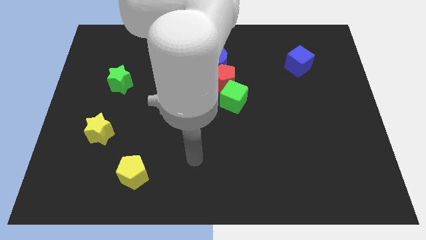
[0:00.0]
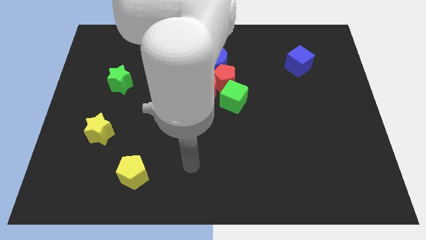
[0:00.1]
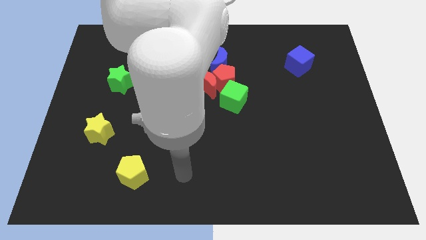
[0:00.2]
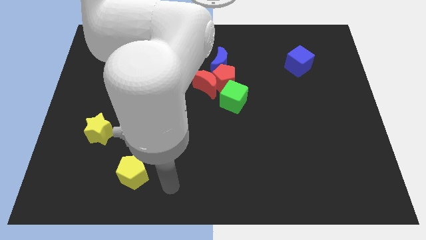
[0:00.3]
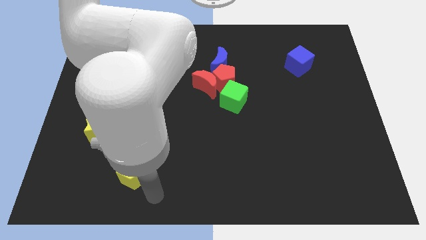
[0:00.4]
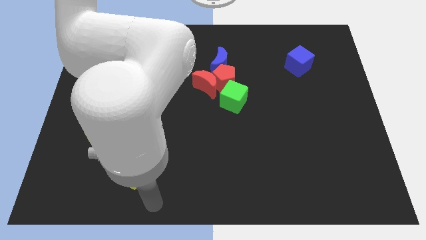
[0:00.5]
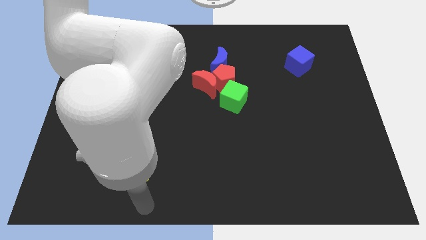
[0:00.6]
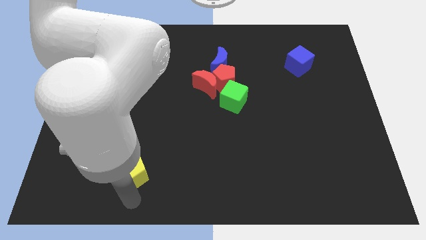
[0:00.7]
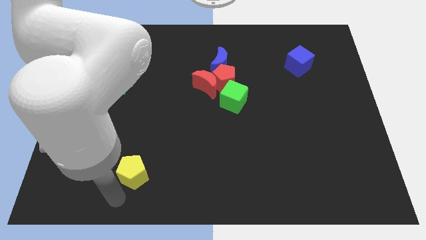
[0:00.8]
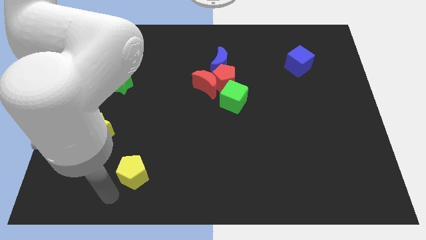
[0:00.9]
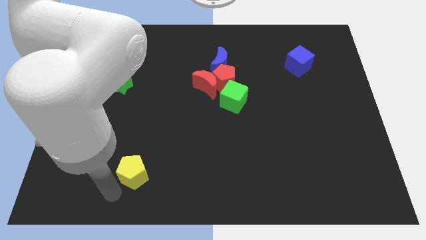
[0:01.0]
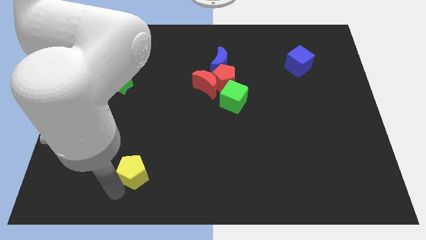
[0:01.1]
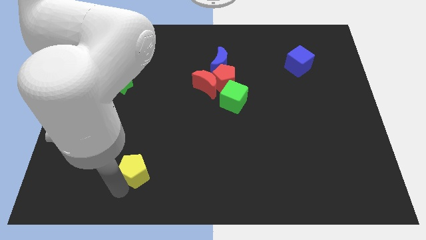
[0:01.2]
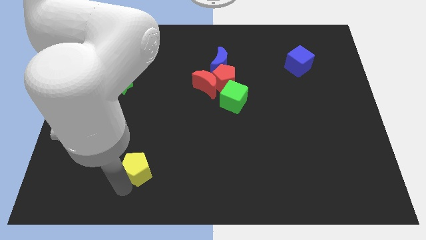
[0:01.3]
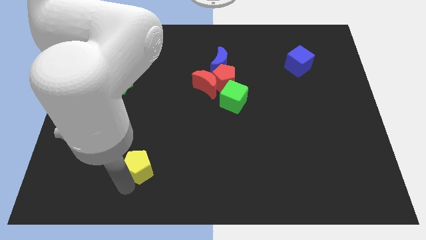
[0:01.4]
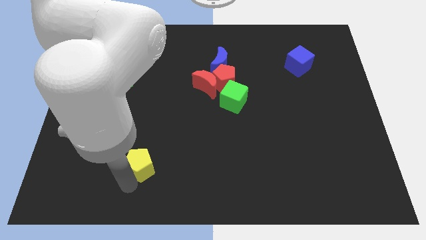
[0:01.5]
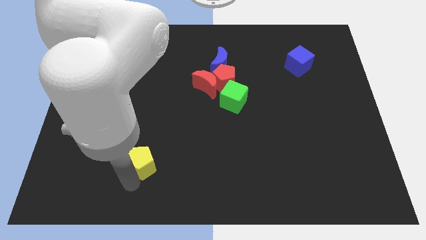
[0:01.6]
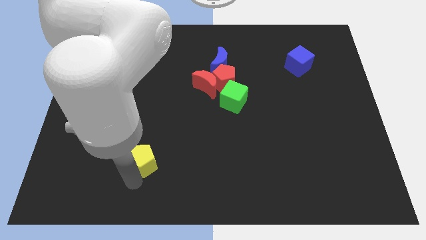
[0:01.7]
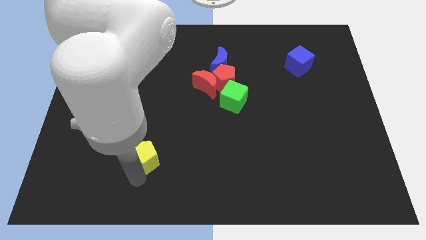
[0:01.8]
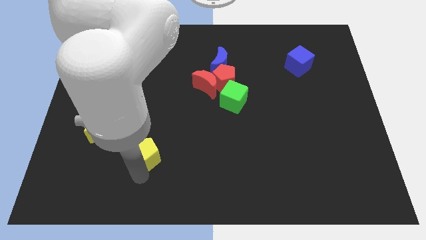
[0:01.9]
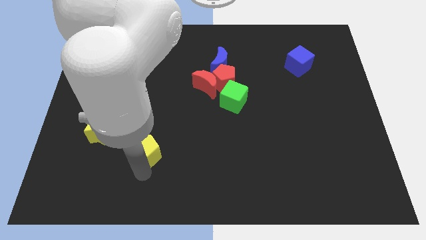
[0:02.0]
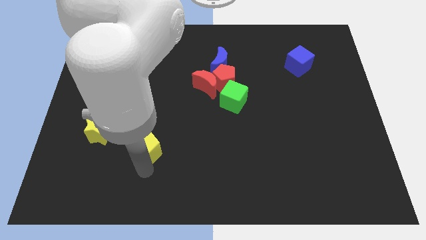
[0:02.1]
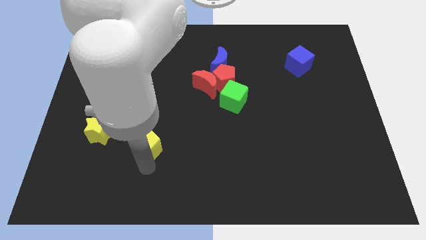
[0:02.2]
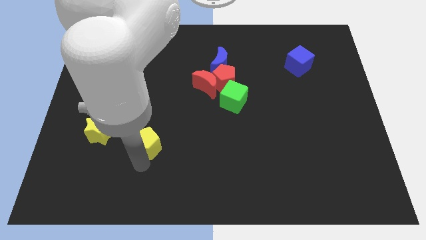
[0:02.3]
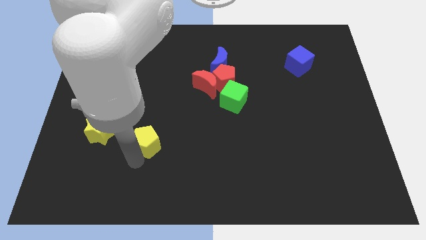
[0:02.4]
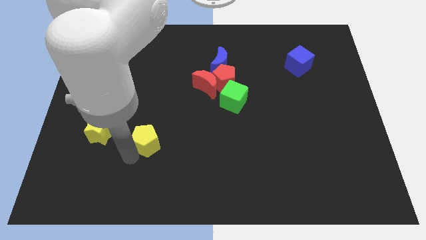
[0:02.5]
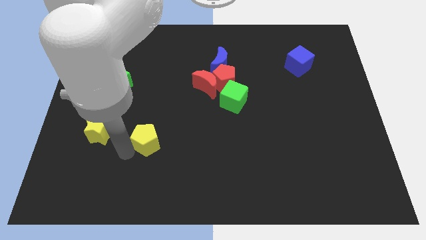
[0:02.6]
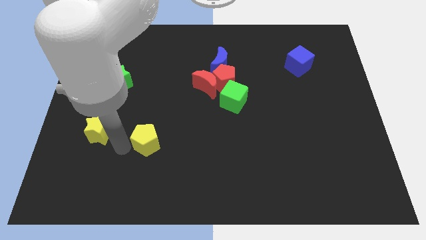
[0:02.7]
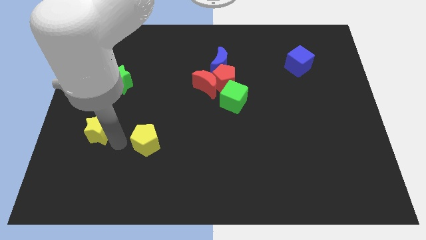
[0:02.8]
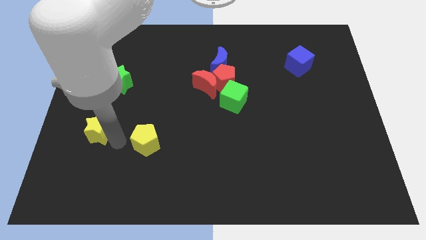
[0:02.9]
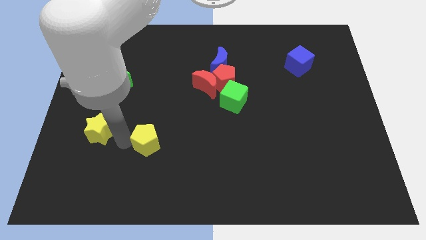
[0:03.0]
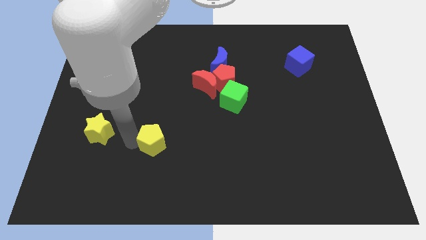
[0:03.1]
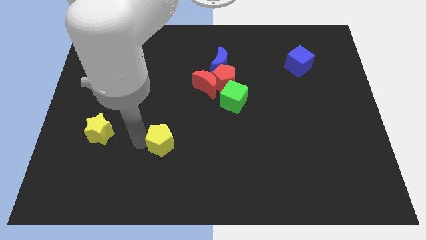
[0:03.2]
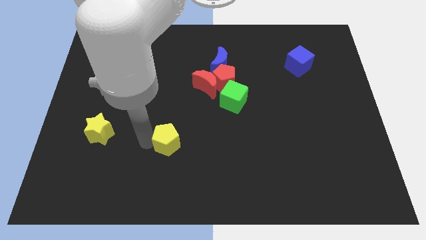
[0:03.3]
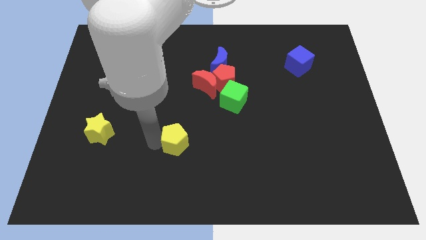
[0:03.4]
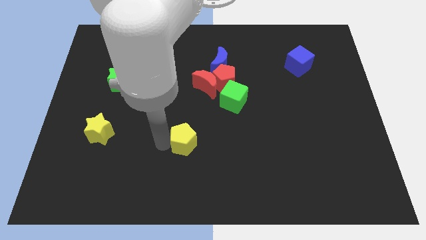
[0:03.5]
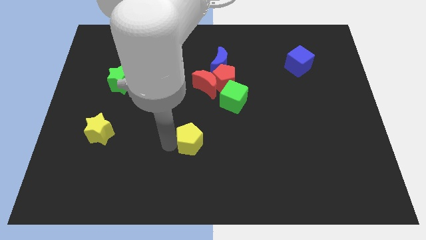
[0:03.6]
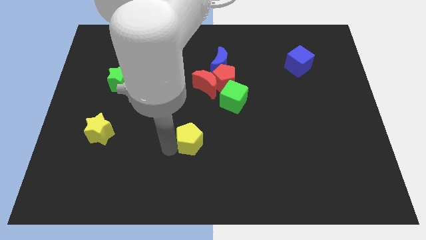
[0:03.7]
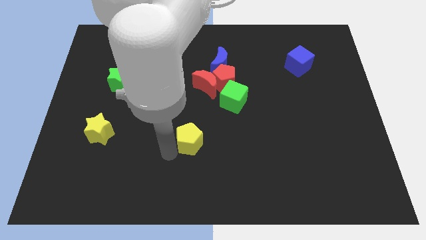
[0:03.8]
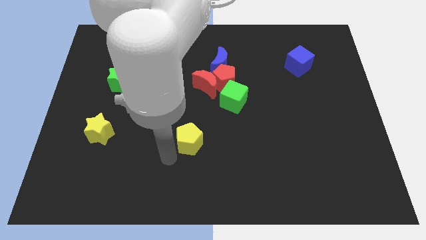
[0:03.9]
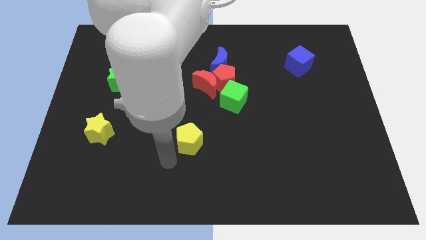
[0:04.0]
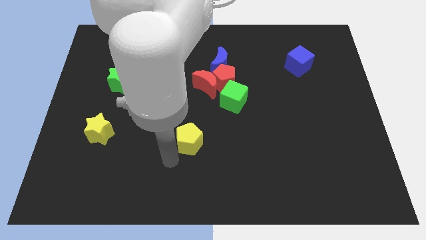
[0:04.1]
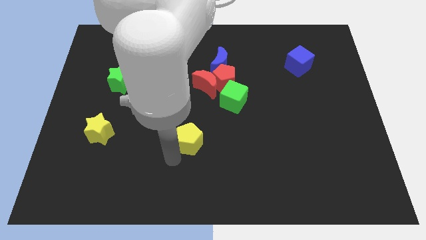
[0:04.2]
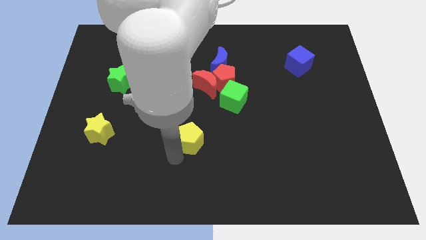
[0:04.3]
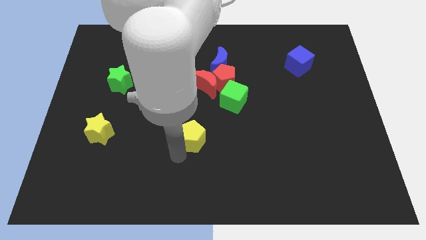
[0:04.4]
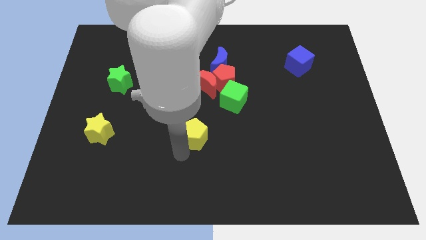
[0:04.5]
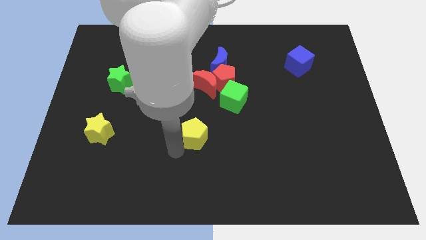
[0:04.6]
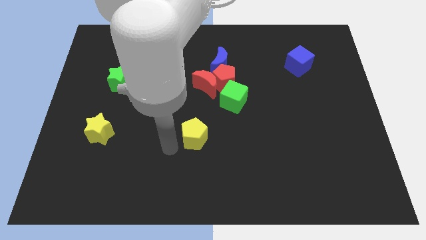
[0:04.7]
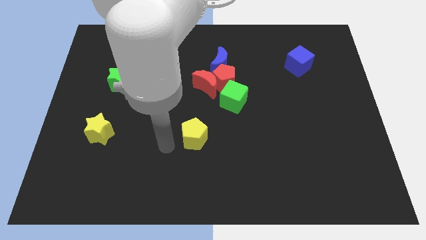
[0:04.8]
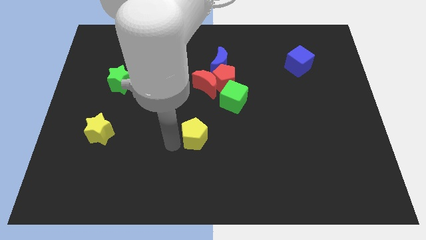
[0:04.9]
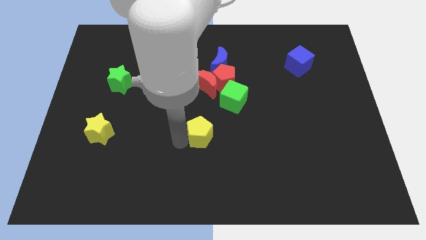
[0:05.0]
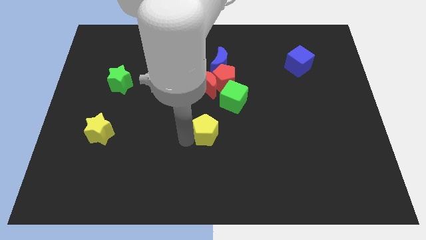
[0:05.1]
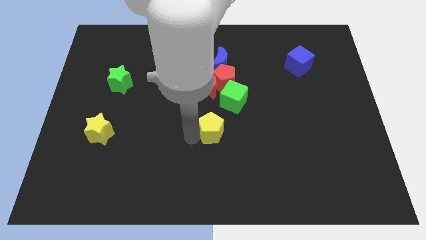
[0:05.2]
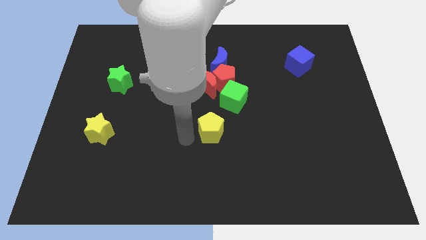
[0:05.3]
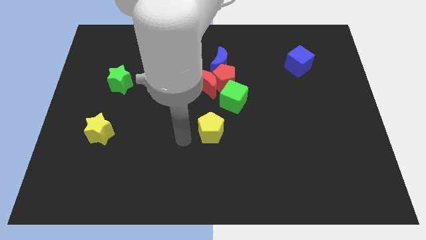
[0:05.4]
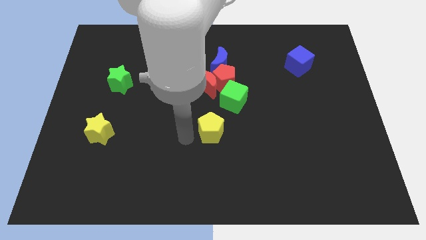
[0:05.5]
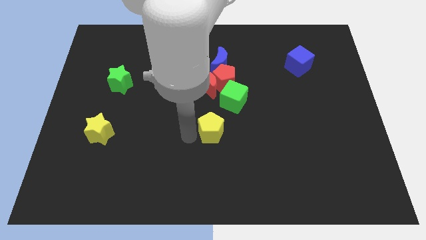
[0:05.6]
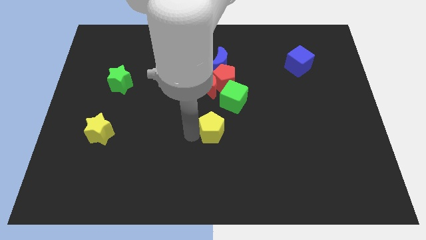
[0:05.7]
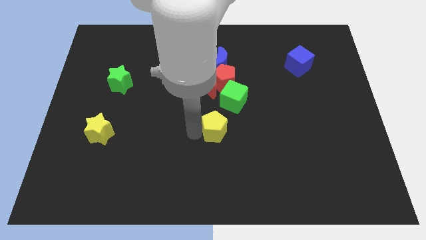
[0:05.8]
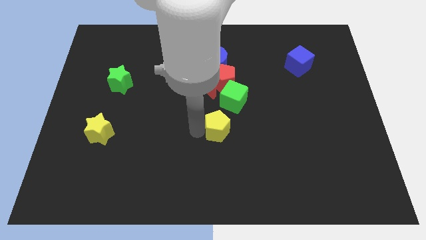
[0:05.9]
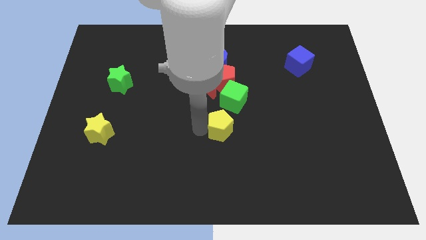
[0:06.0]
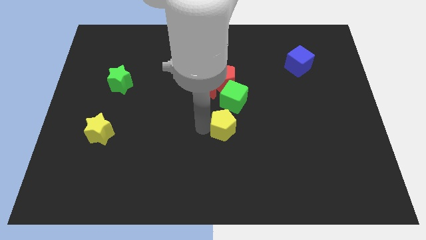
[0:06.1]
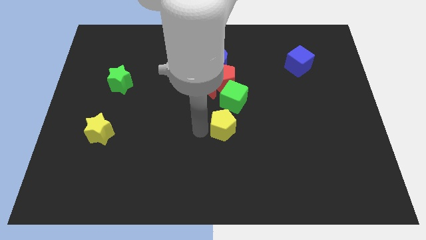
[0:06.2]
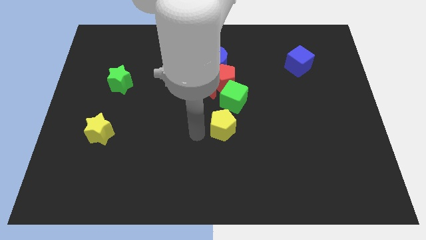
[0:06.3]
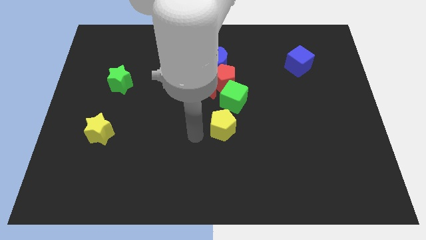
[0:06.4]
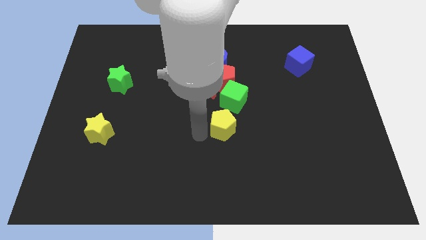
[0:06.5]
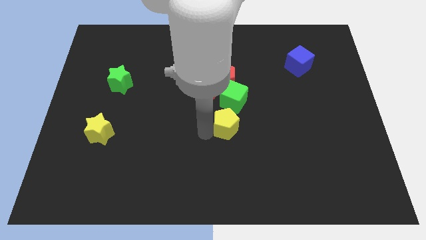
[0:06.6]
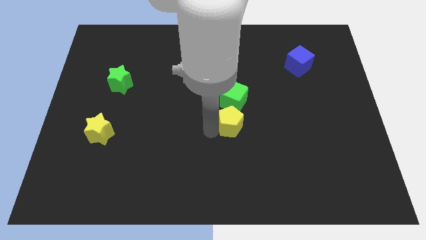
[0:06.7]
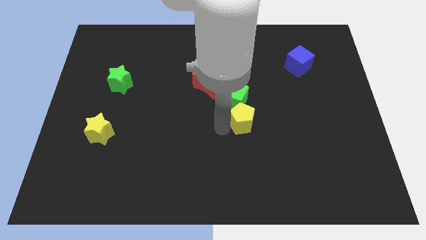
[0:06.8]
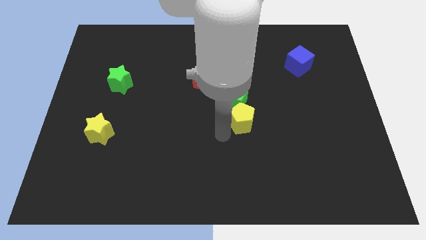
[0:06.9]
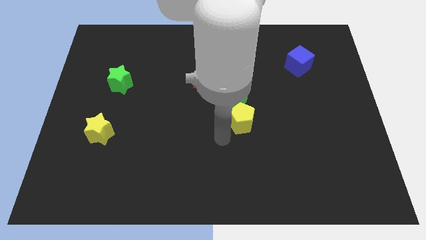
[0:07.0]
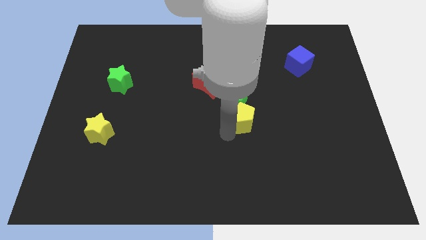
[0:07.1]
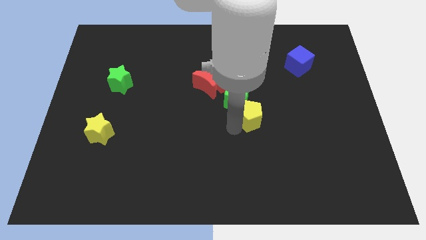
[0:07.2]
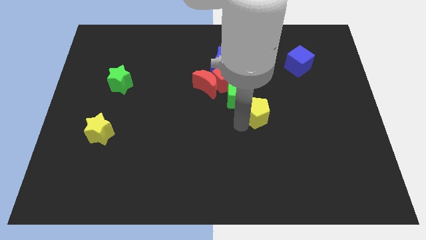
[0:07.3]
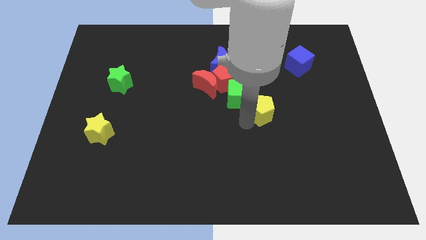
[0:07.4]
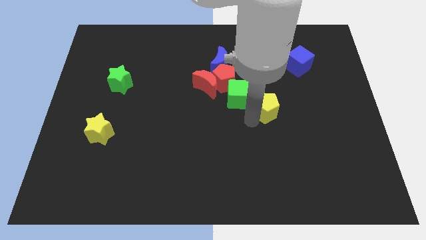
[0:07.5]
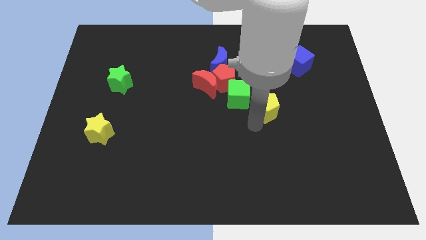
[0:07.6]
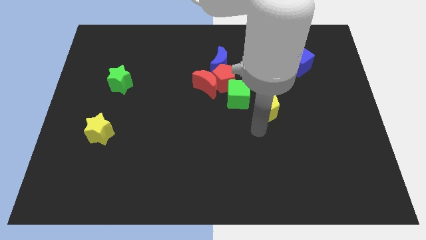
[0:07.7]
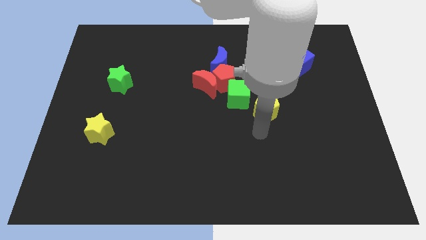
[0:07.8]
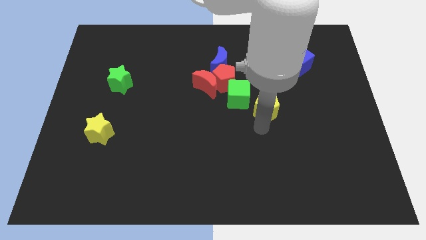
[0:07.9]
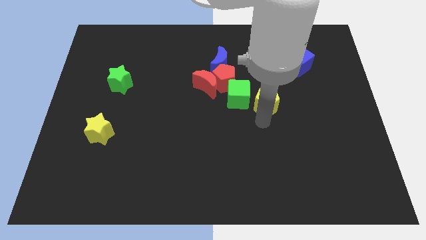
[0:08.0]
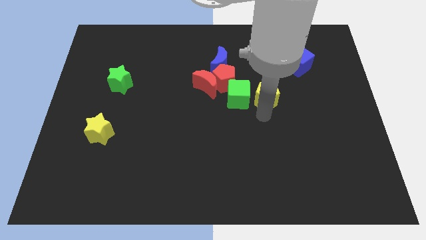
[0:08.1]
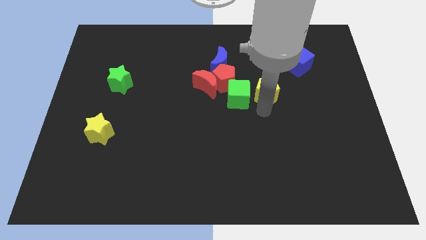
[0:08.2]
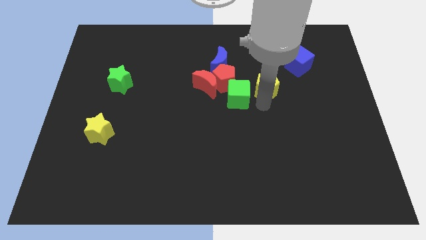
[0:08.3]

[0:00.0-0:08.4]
slide the yellow pentagon to the bottom left side of the blue cube
